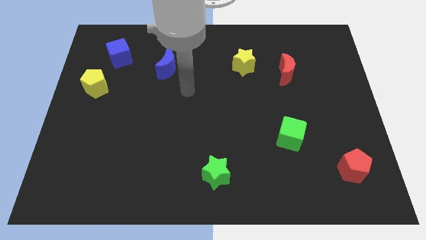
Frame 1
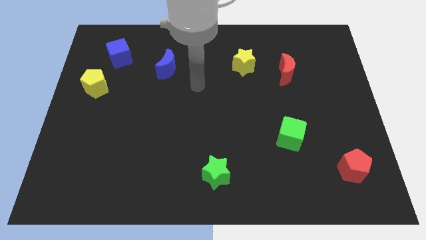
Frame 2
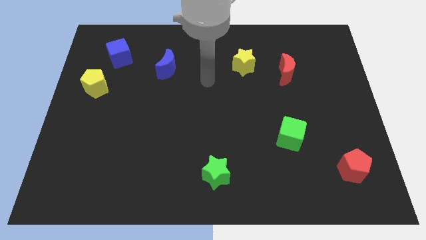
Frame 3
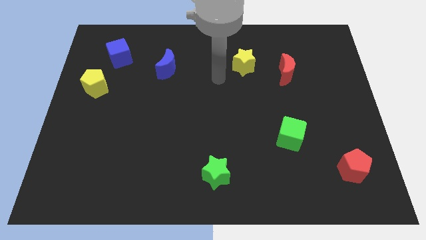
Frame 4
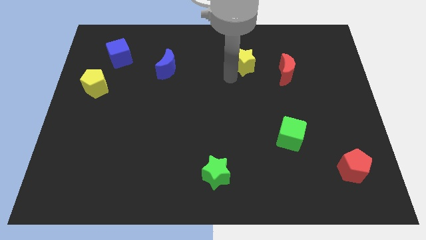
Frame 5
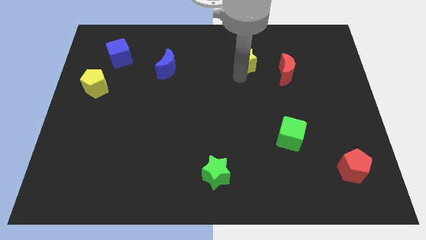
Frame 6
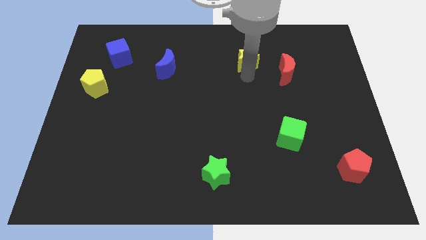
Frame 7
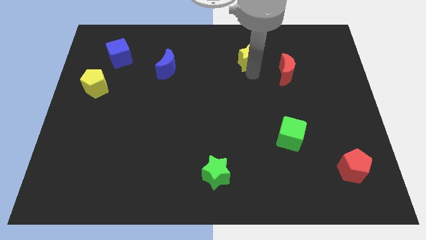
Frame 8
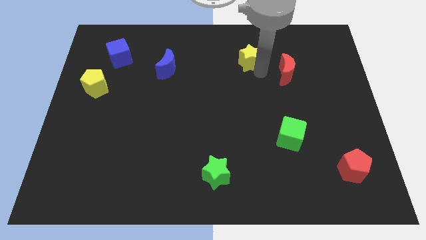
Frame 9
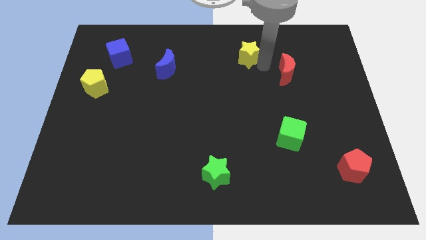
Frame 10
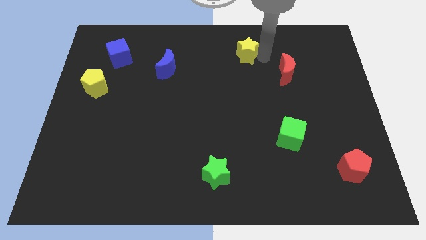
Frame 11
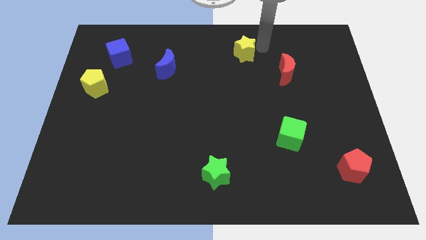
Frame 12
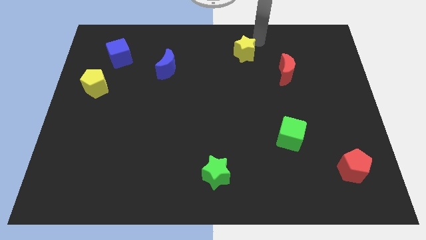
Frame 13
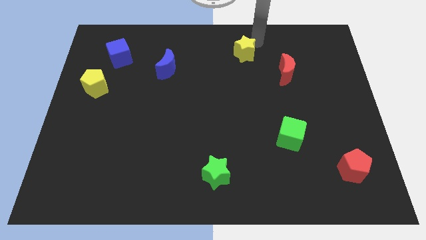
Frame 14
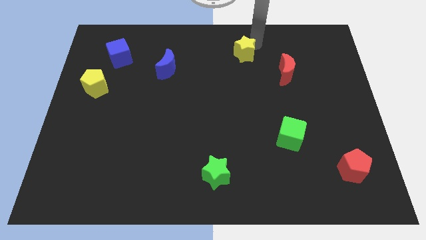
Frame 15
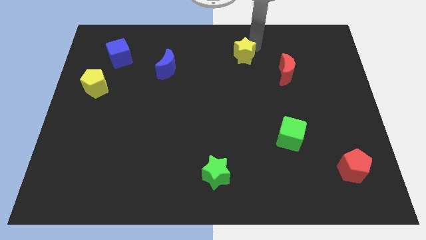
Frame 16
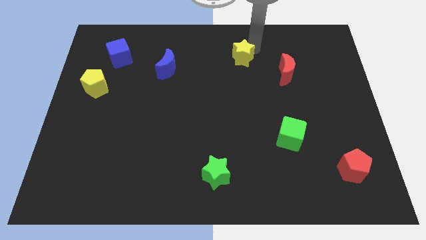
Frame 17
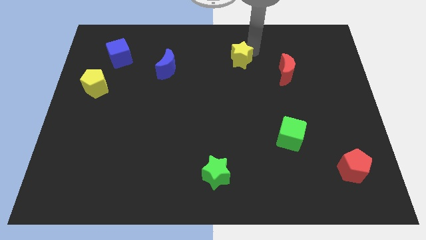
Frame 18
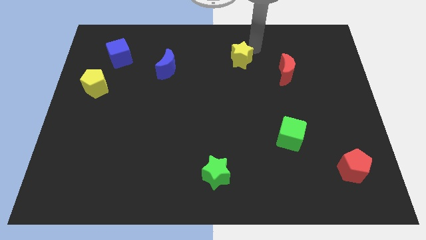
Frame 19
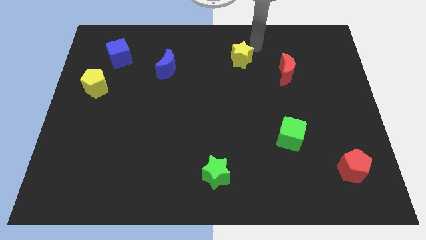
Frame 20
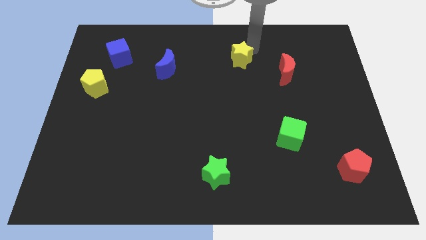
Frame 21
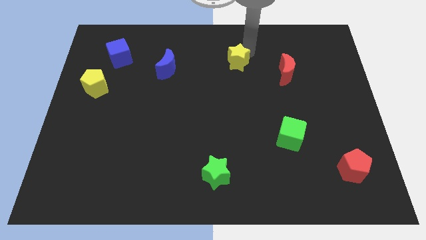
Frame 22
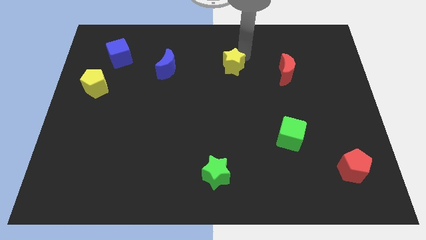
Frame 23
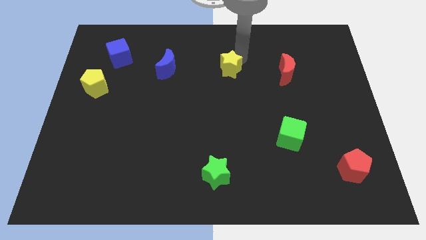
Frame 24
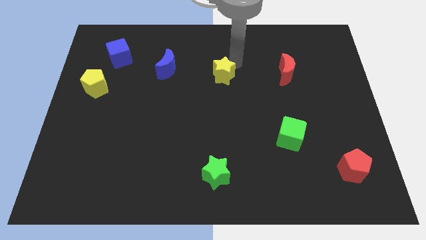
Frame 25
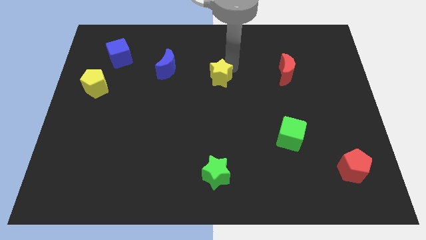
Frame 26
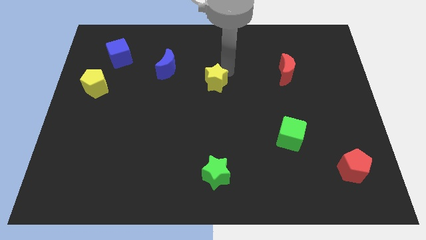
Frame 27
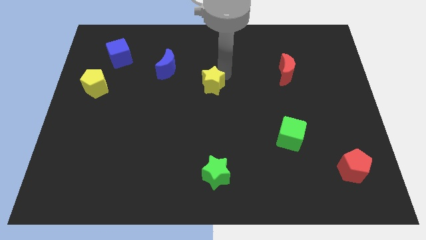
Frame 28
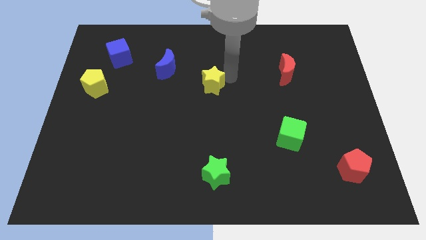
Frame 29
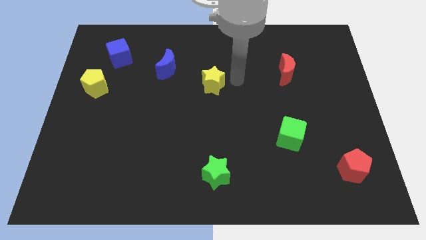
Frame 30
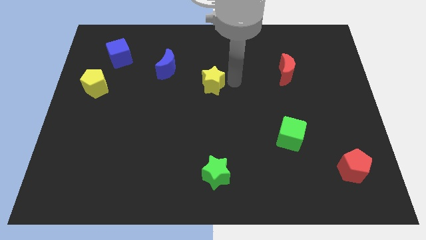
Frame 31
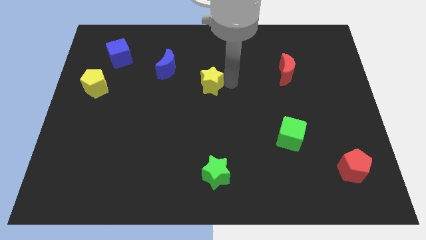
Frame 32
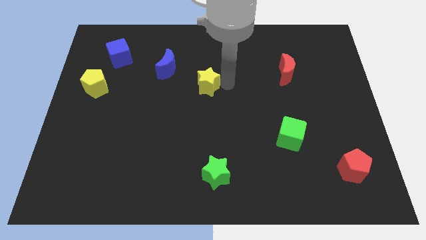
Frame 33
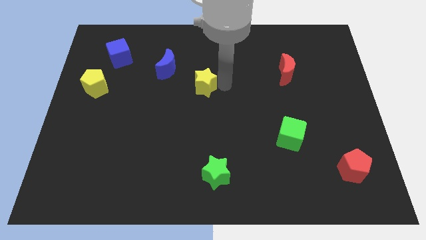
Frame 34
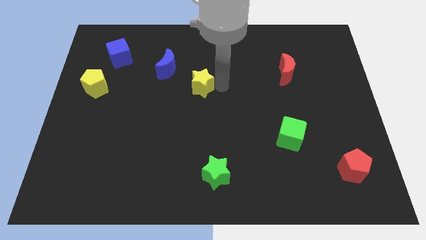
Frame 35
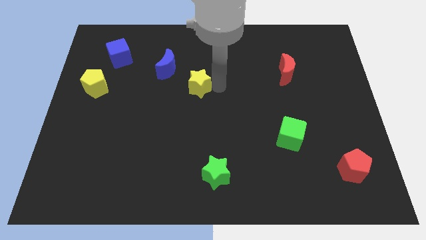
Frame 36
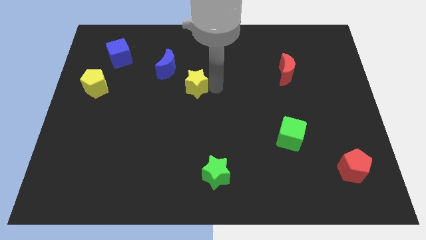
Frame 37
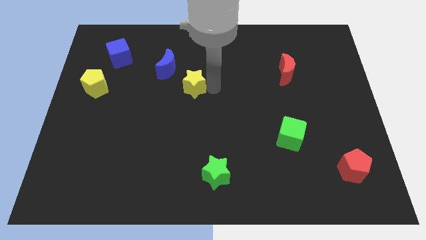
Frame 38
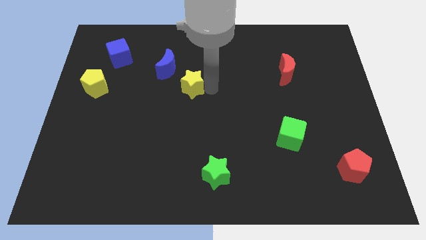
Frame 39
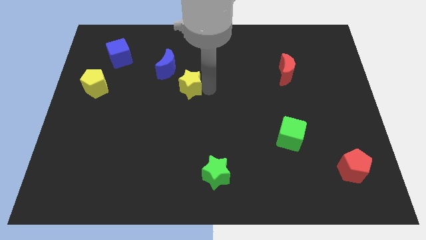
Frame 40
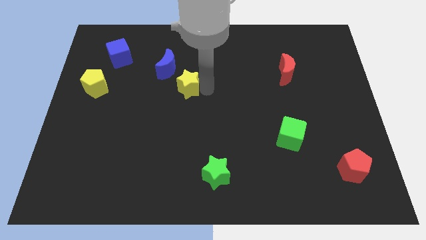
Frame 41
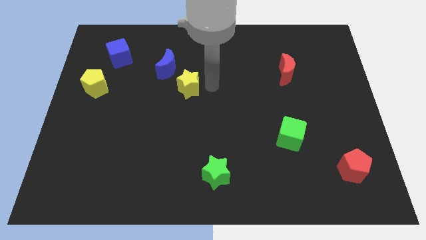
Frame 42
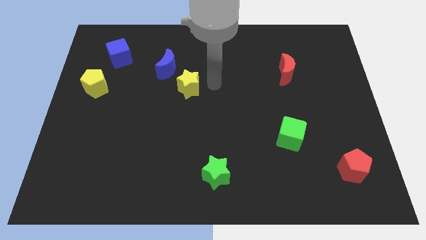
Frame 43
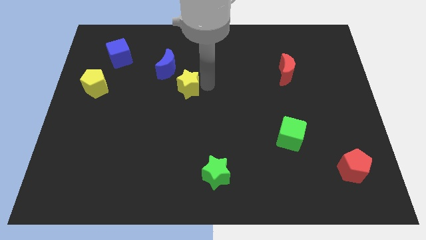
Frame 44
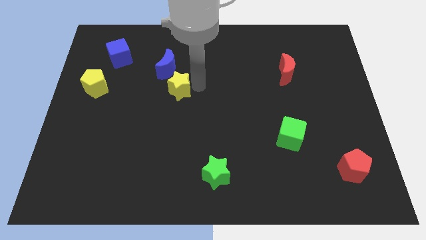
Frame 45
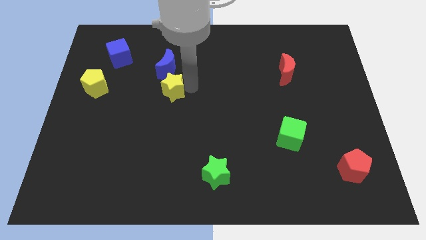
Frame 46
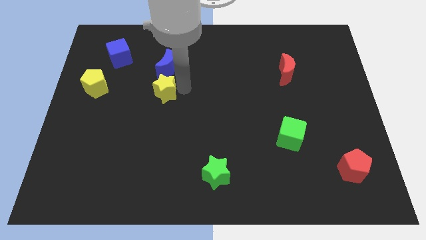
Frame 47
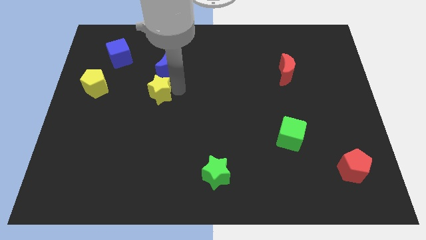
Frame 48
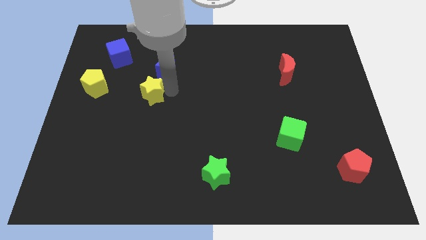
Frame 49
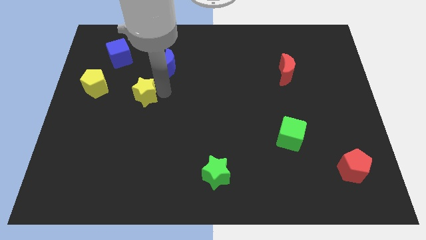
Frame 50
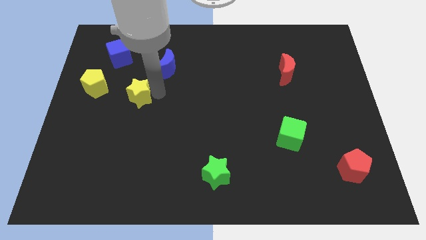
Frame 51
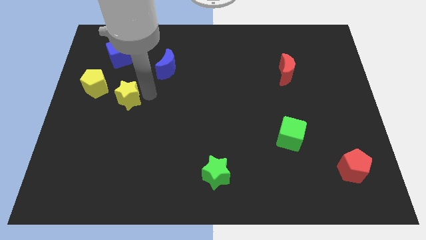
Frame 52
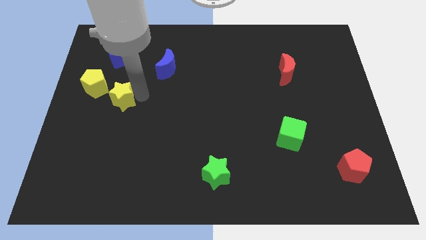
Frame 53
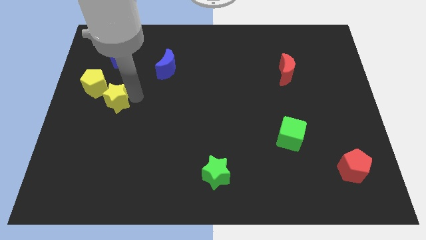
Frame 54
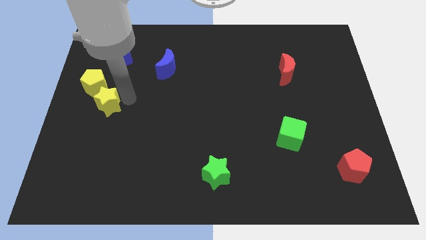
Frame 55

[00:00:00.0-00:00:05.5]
move the yellow star to the center left

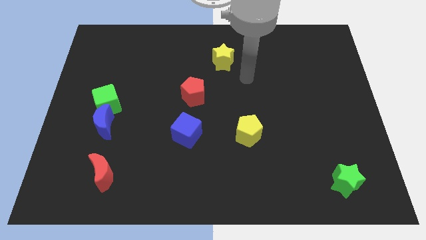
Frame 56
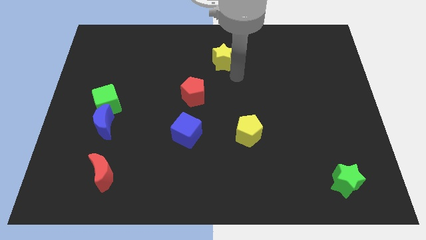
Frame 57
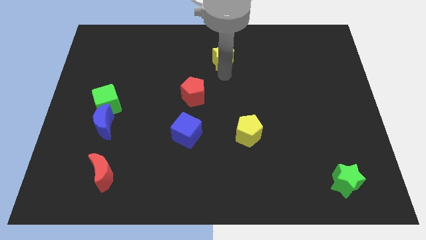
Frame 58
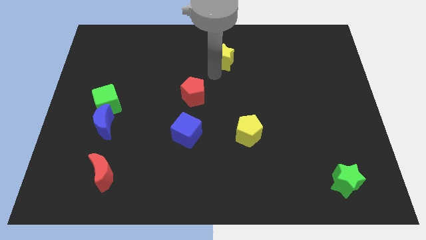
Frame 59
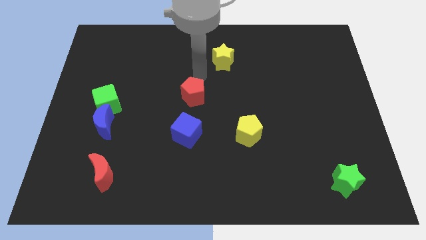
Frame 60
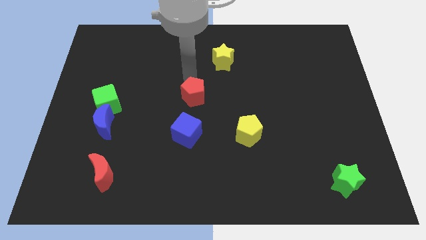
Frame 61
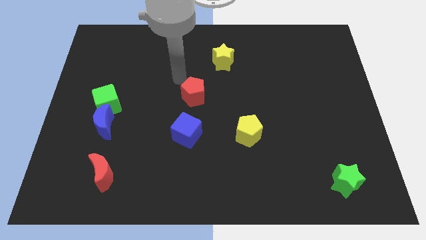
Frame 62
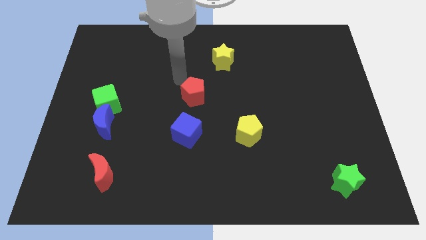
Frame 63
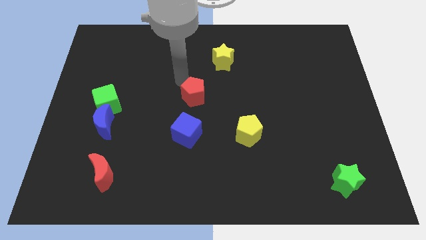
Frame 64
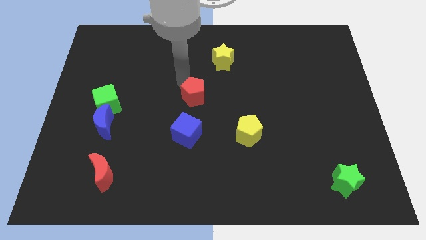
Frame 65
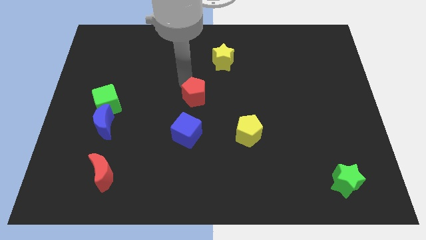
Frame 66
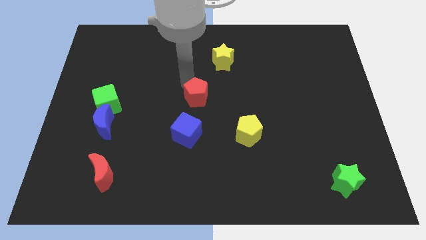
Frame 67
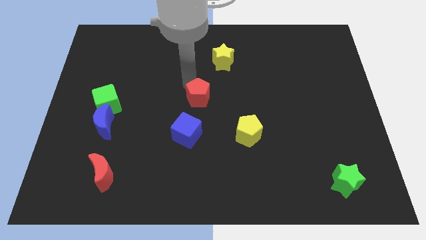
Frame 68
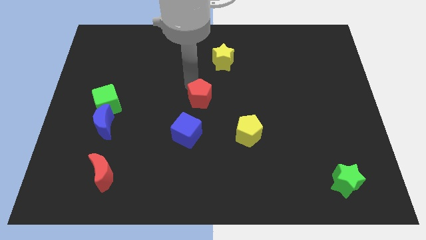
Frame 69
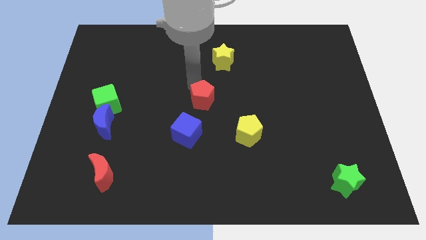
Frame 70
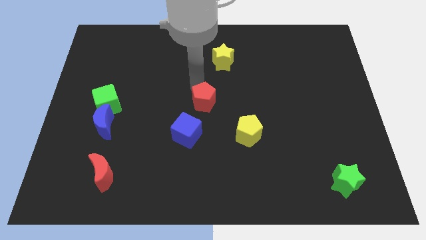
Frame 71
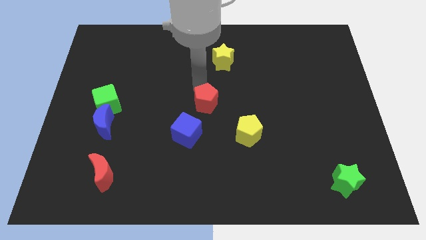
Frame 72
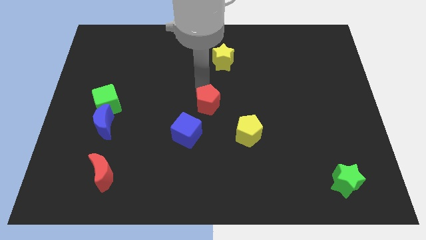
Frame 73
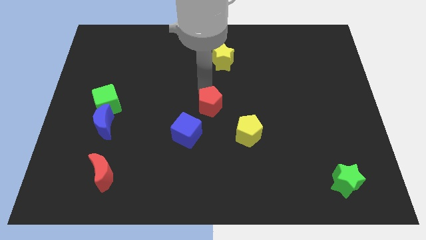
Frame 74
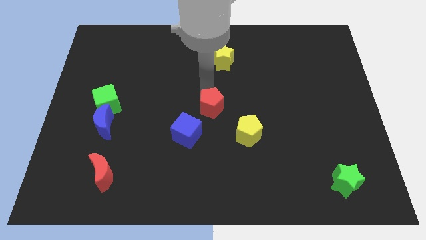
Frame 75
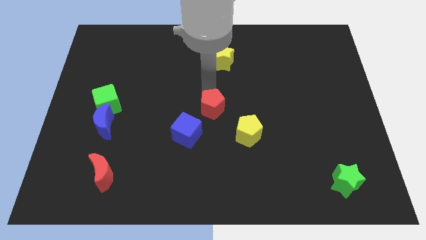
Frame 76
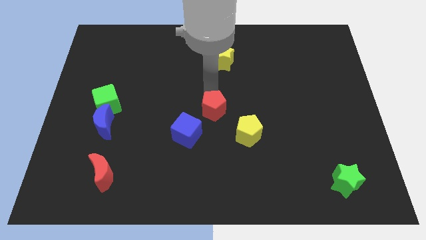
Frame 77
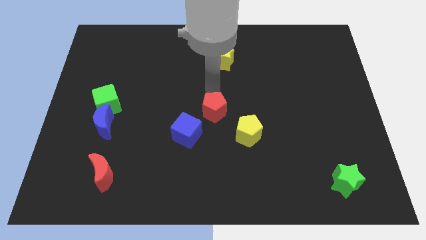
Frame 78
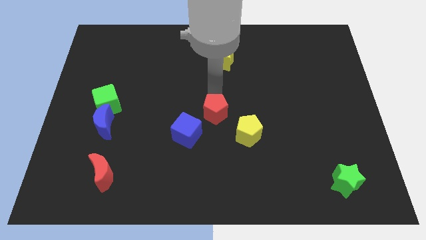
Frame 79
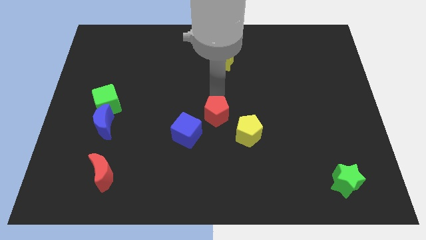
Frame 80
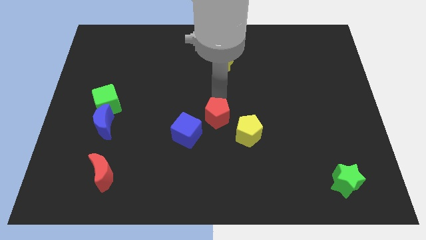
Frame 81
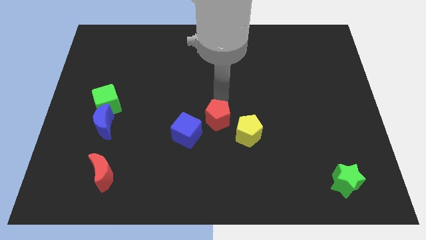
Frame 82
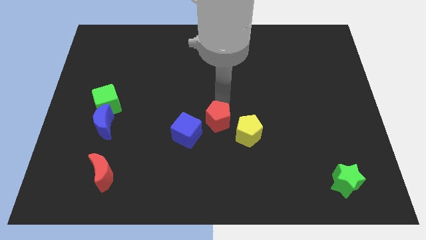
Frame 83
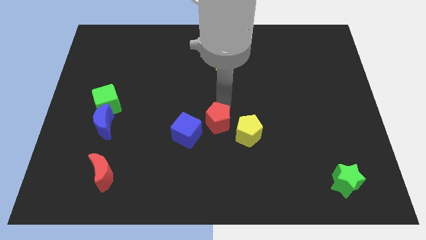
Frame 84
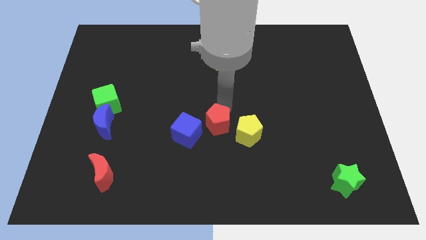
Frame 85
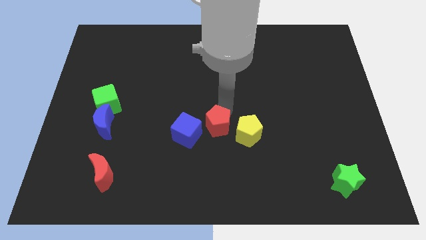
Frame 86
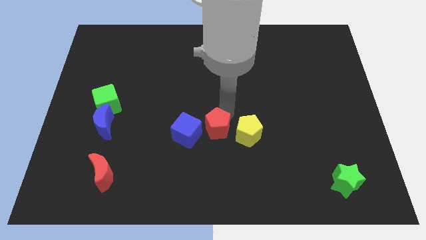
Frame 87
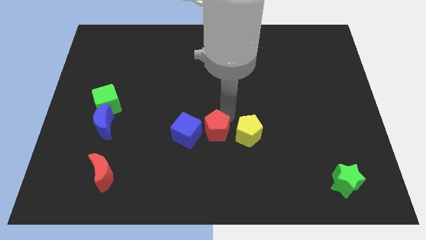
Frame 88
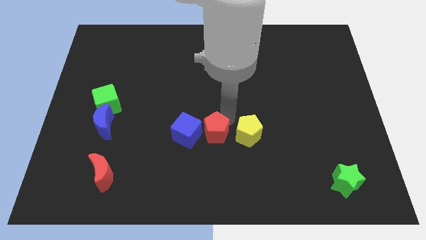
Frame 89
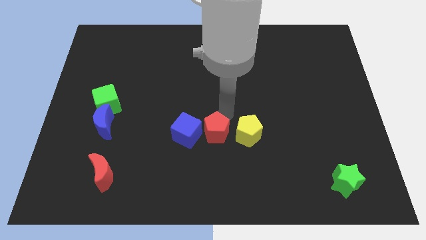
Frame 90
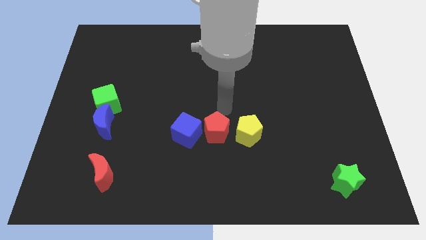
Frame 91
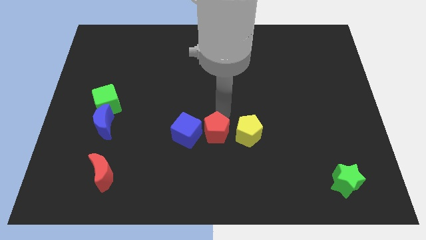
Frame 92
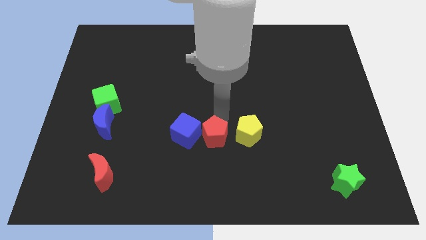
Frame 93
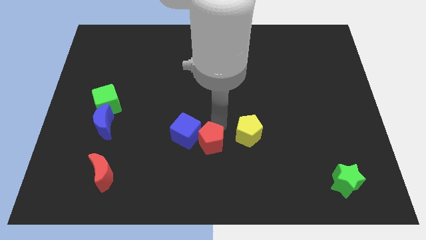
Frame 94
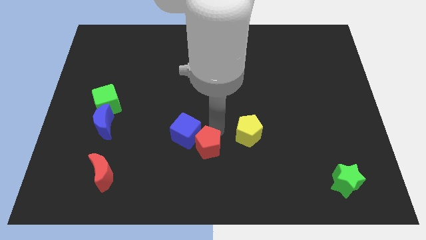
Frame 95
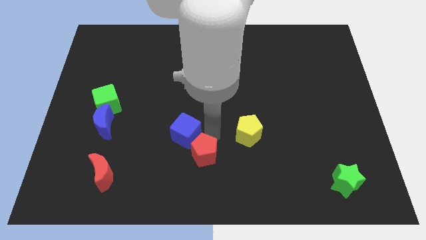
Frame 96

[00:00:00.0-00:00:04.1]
push the red pentagon to the bottom
